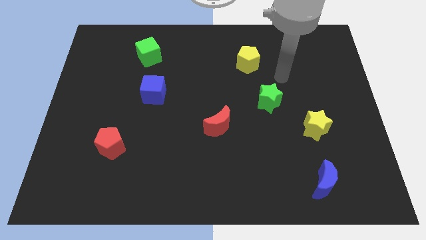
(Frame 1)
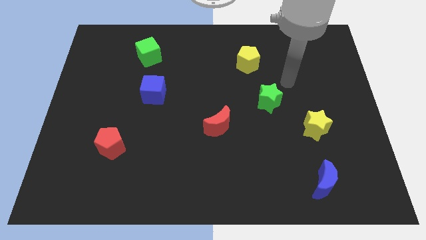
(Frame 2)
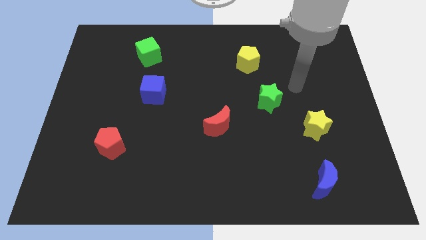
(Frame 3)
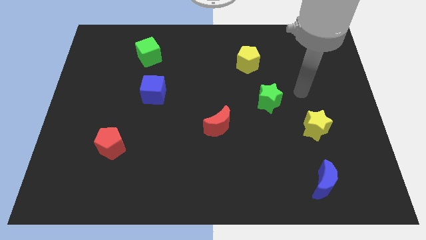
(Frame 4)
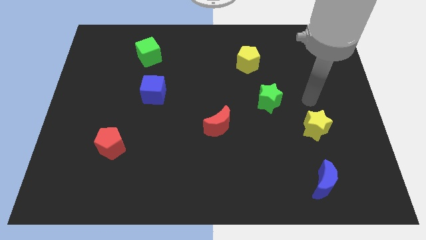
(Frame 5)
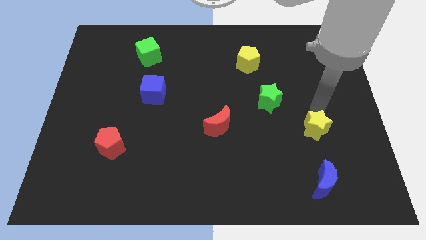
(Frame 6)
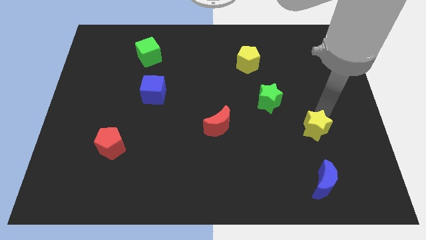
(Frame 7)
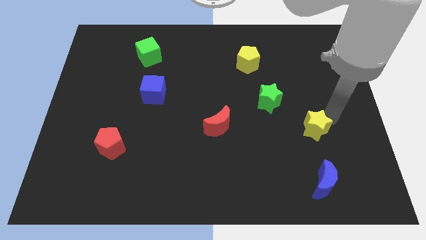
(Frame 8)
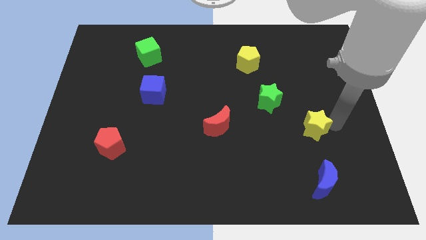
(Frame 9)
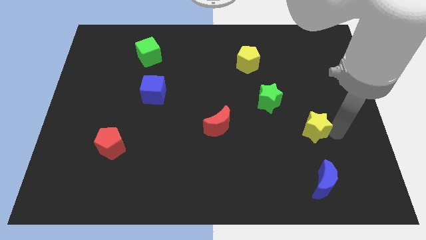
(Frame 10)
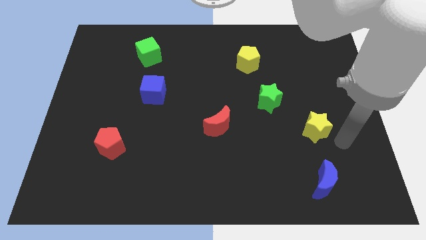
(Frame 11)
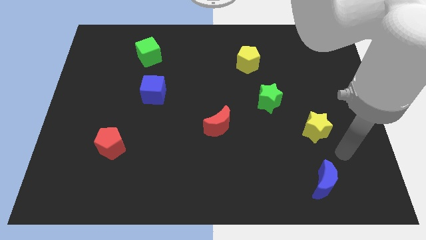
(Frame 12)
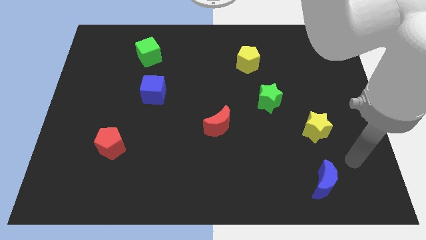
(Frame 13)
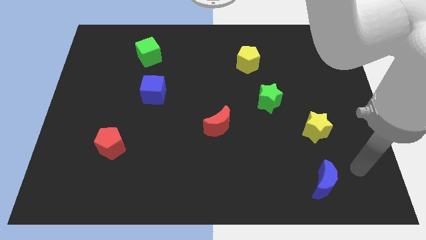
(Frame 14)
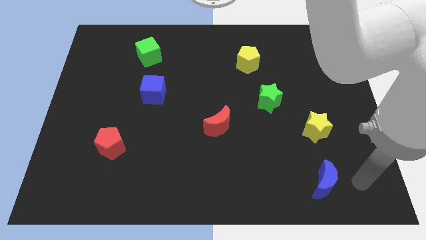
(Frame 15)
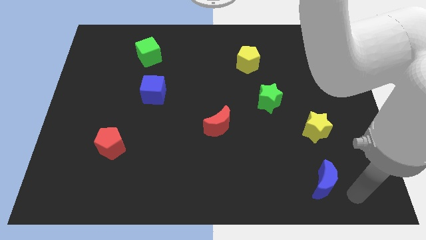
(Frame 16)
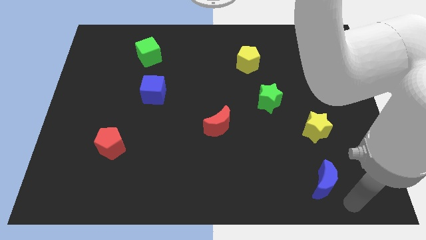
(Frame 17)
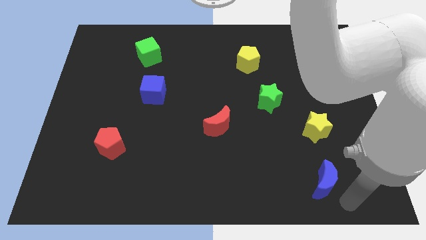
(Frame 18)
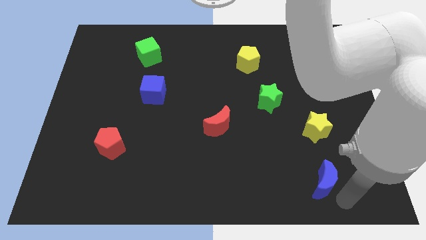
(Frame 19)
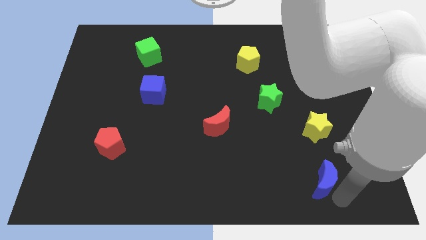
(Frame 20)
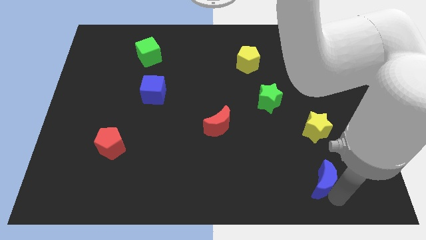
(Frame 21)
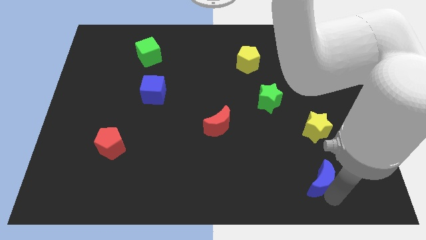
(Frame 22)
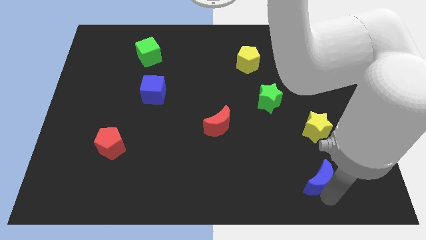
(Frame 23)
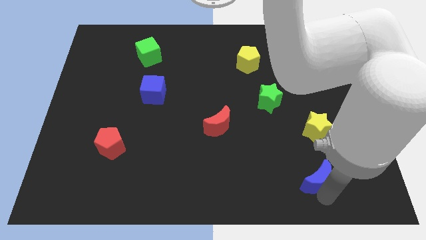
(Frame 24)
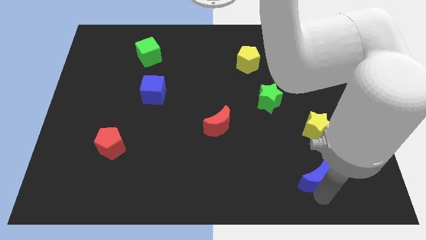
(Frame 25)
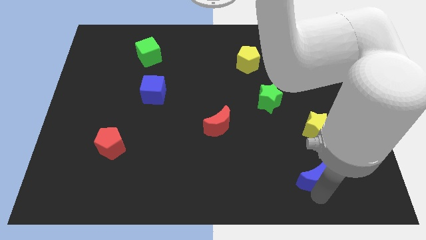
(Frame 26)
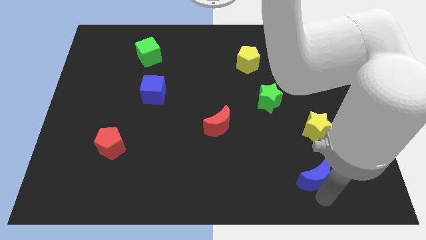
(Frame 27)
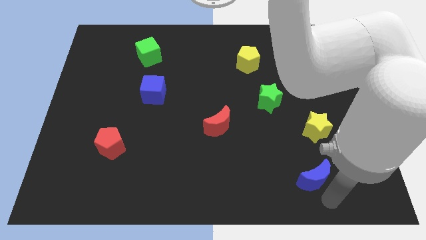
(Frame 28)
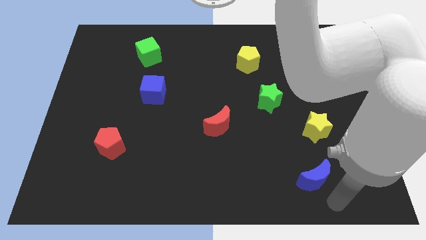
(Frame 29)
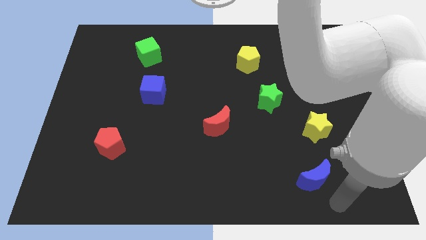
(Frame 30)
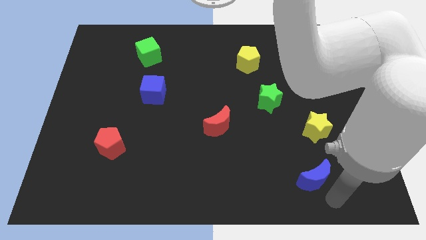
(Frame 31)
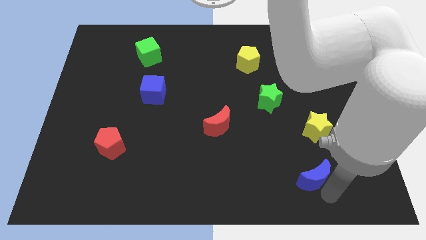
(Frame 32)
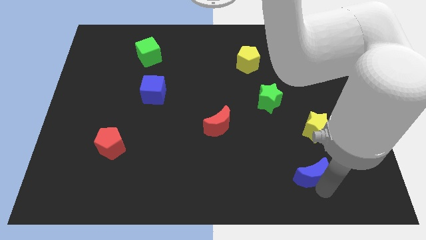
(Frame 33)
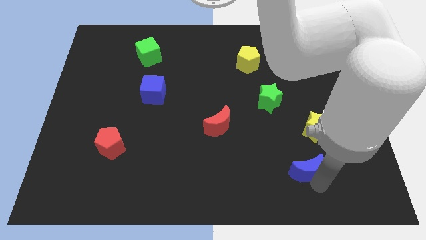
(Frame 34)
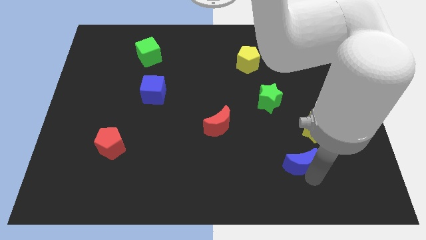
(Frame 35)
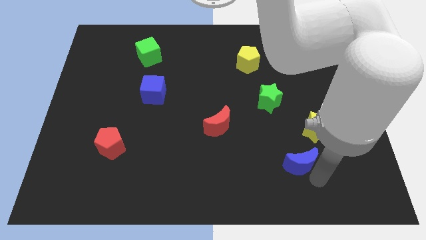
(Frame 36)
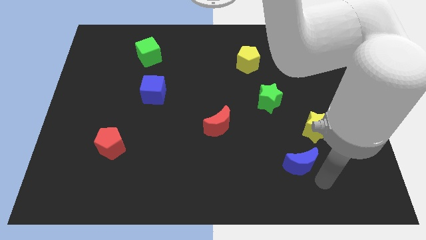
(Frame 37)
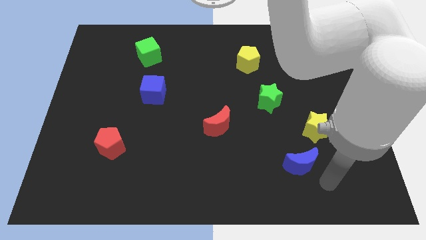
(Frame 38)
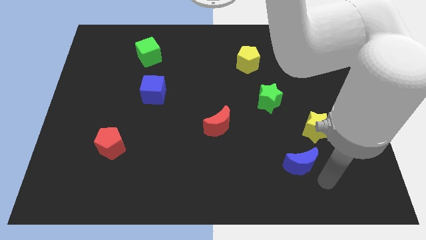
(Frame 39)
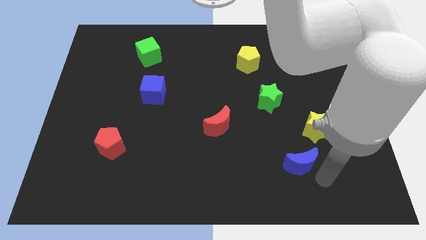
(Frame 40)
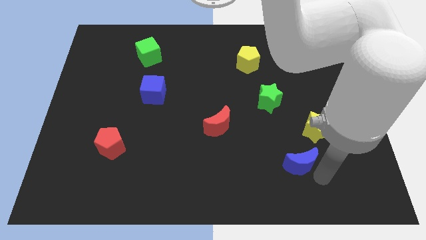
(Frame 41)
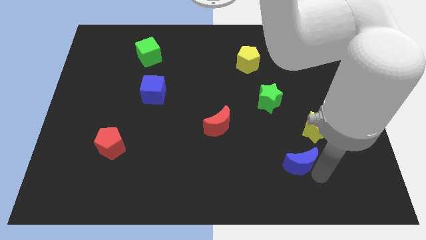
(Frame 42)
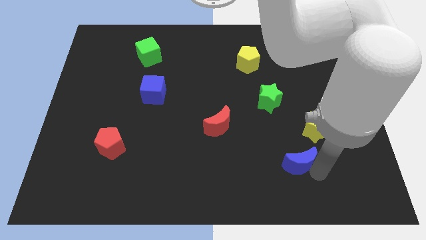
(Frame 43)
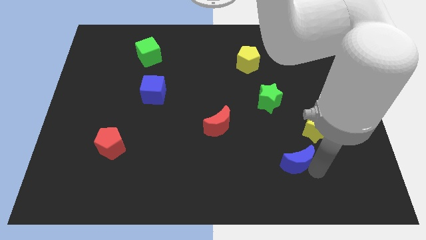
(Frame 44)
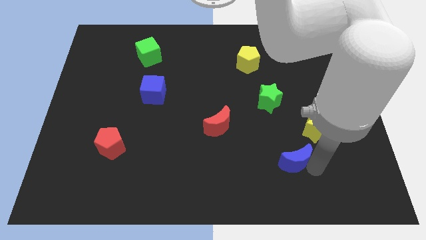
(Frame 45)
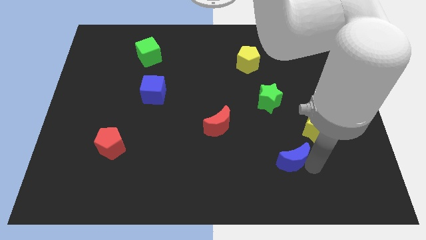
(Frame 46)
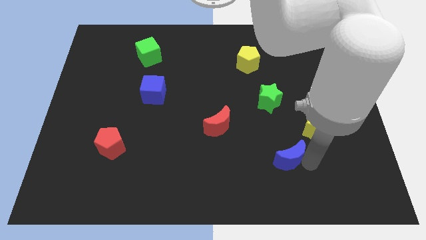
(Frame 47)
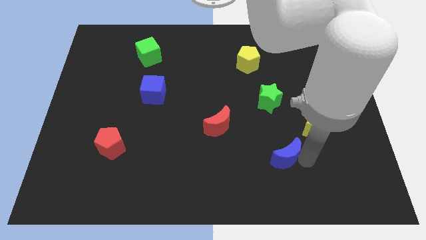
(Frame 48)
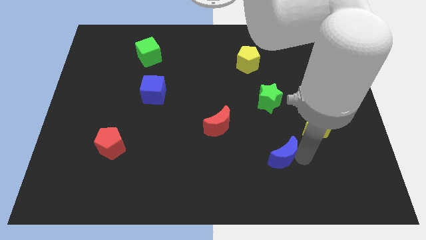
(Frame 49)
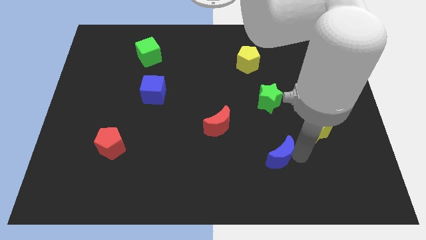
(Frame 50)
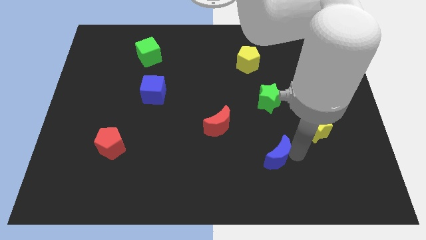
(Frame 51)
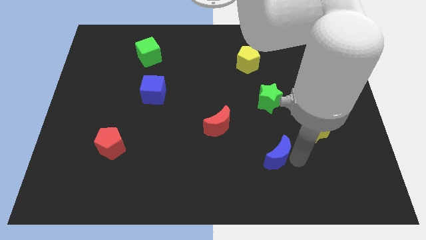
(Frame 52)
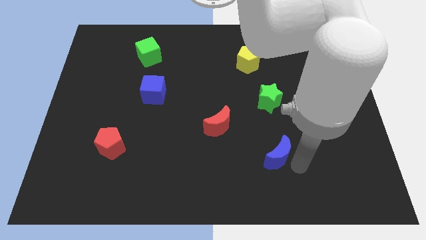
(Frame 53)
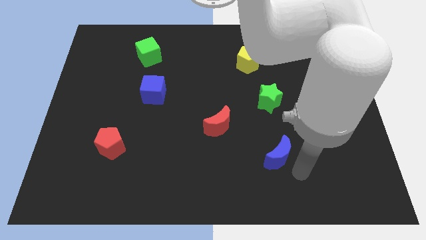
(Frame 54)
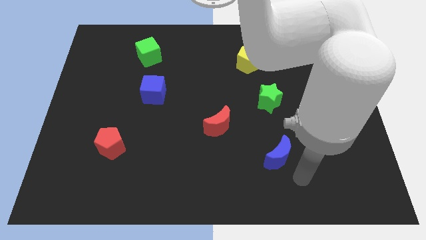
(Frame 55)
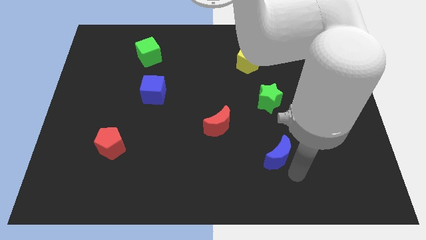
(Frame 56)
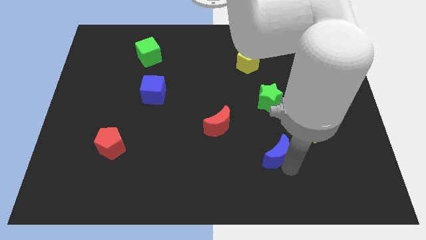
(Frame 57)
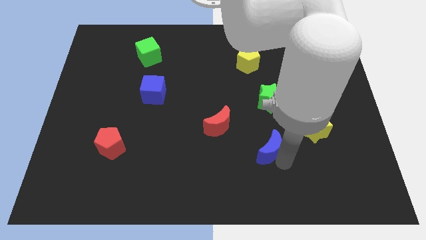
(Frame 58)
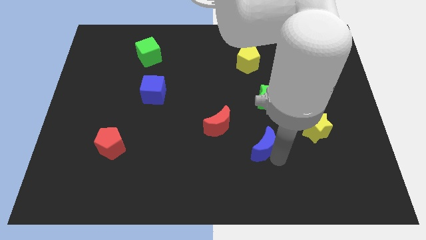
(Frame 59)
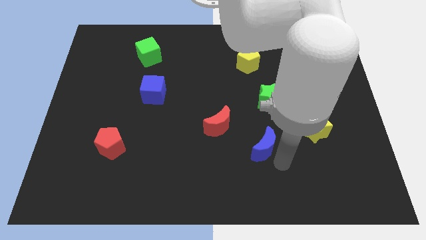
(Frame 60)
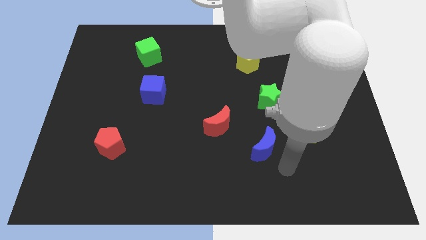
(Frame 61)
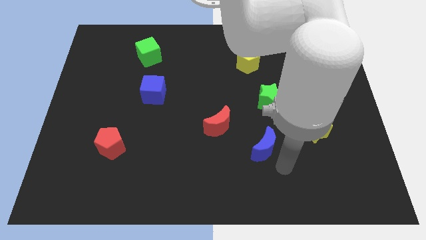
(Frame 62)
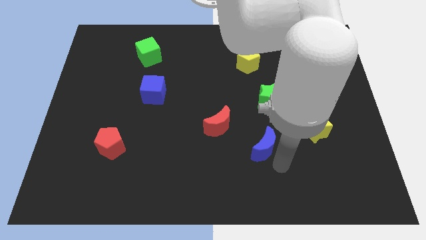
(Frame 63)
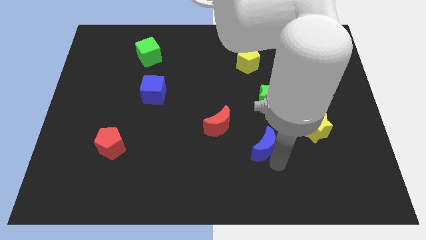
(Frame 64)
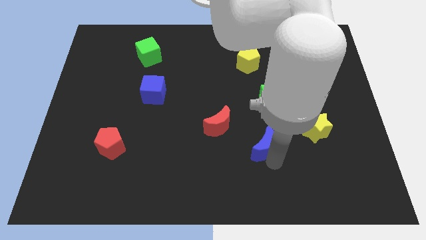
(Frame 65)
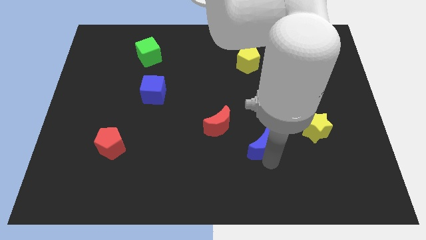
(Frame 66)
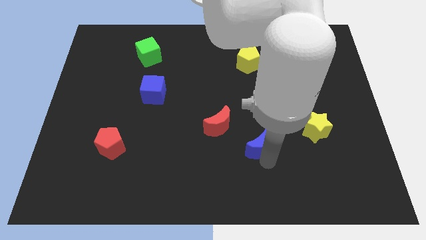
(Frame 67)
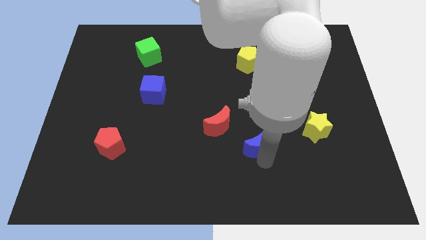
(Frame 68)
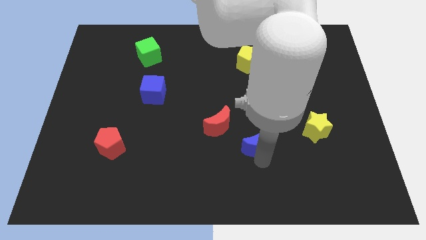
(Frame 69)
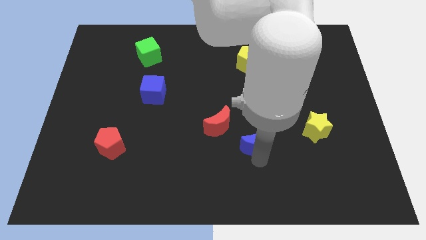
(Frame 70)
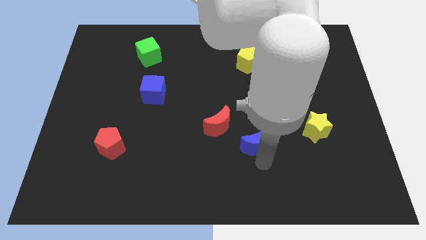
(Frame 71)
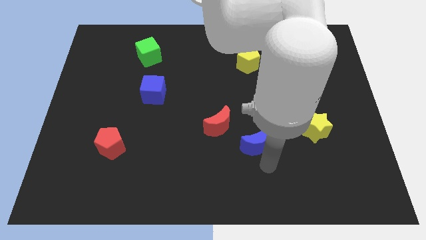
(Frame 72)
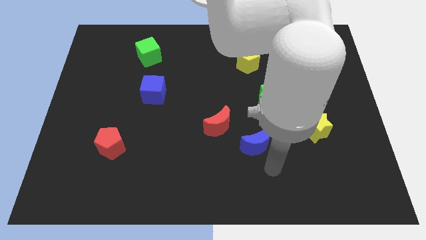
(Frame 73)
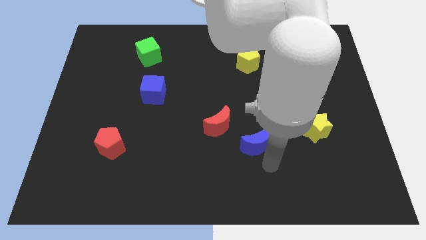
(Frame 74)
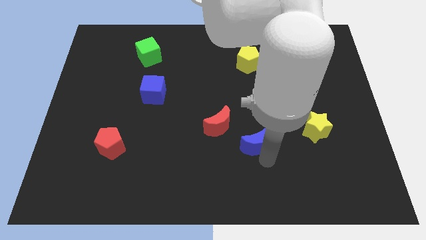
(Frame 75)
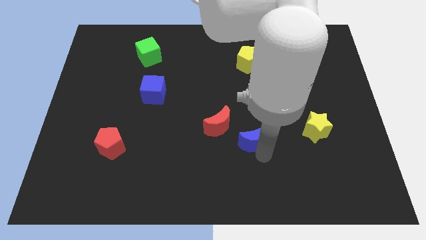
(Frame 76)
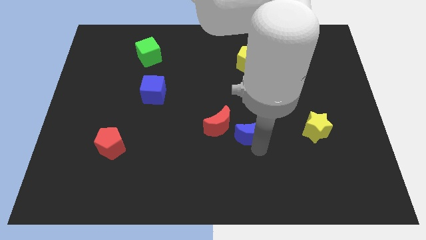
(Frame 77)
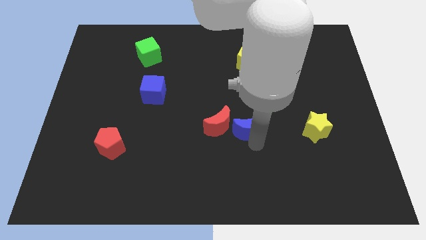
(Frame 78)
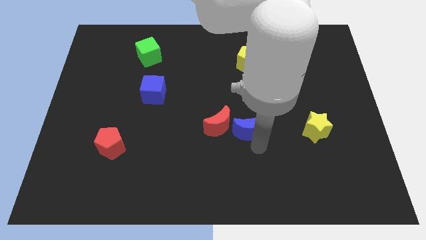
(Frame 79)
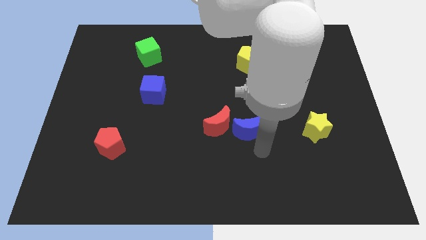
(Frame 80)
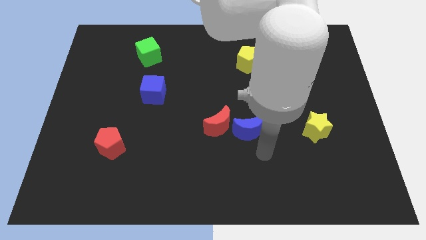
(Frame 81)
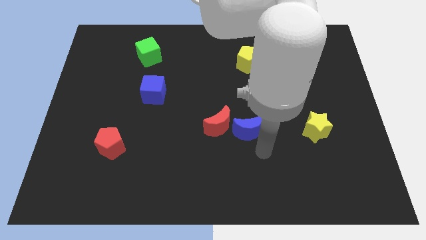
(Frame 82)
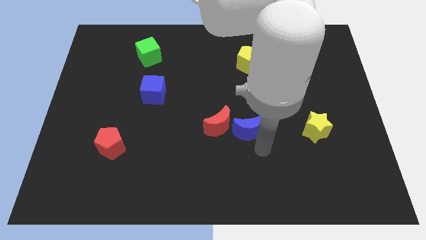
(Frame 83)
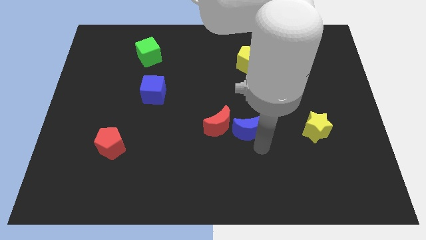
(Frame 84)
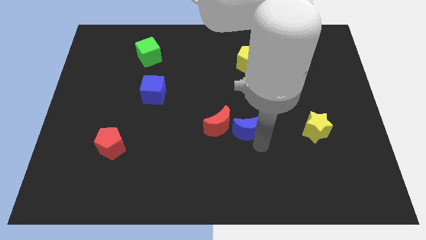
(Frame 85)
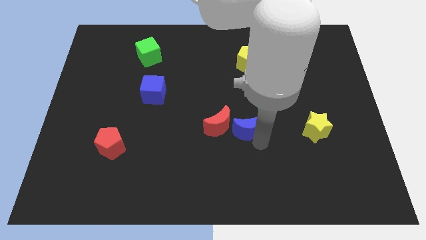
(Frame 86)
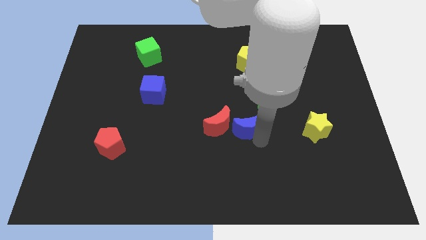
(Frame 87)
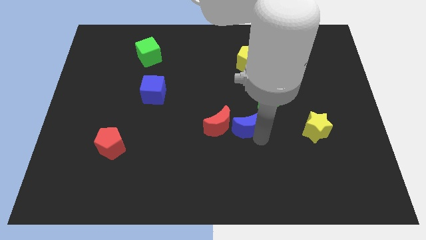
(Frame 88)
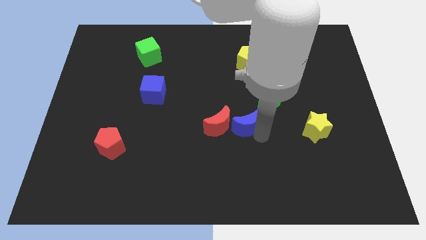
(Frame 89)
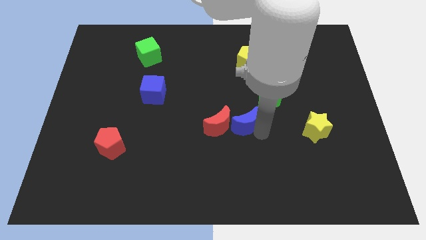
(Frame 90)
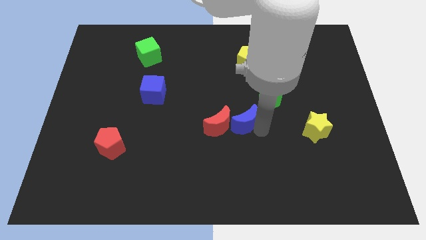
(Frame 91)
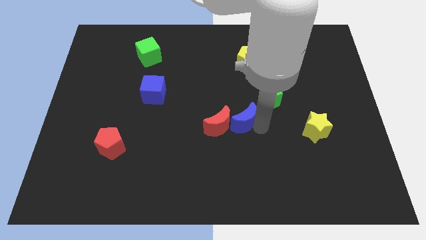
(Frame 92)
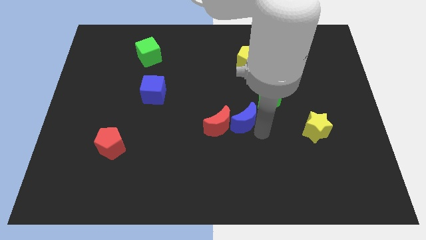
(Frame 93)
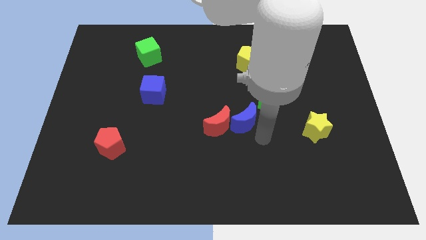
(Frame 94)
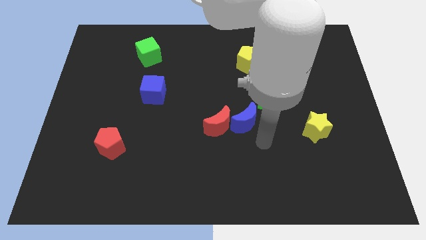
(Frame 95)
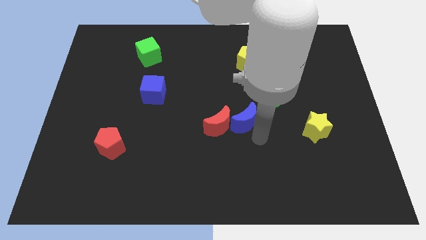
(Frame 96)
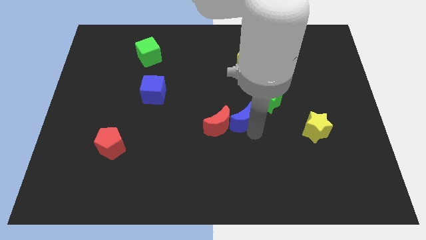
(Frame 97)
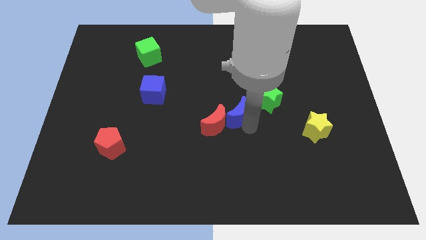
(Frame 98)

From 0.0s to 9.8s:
put the blue moon just left of the green star
